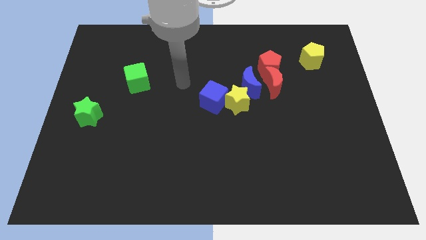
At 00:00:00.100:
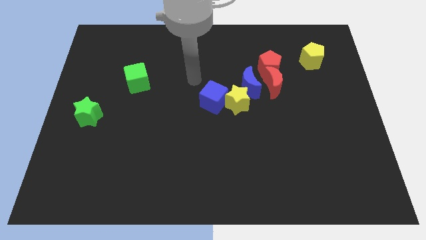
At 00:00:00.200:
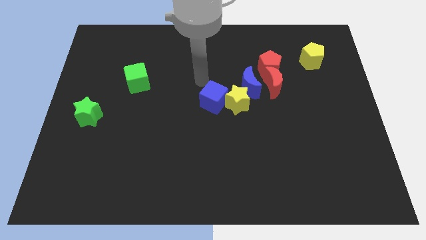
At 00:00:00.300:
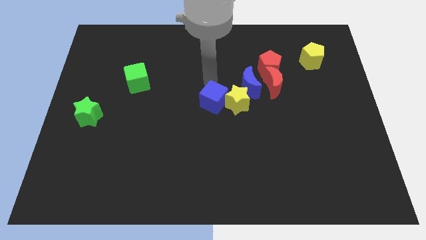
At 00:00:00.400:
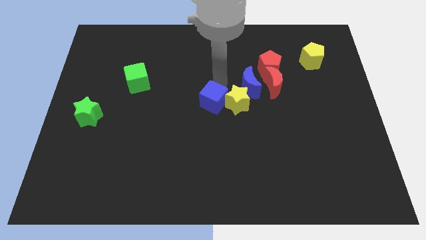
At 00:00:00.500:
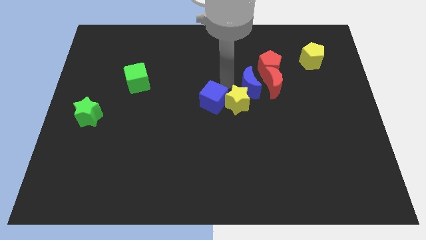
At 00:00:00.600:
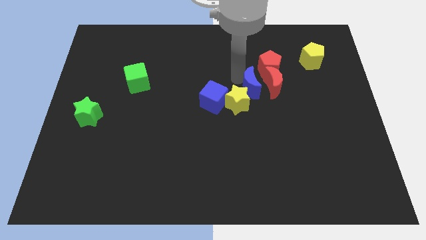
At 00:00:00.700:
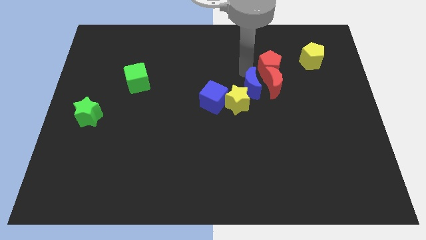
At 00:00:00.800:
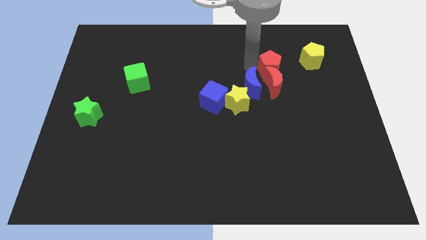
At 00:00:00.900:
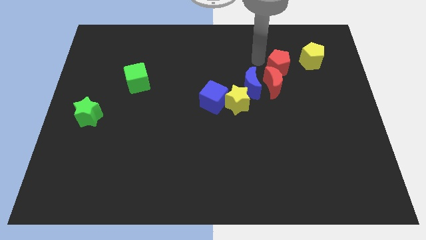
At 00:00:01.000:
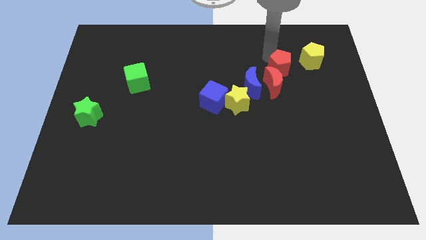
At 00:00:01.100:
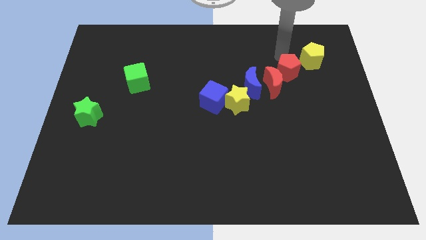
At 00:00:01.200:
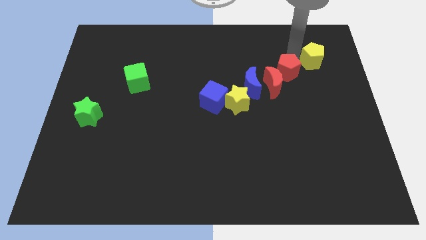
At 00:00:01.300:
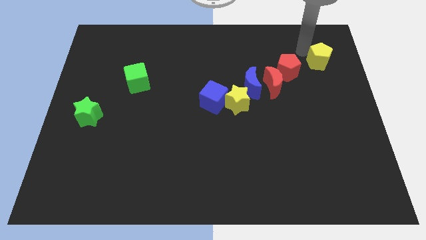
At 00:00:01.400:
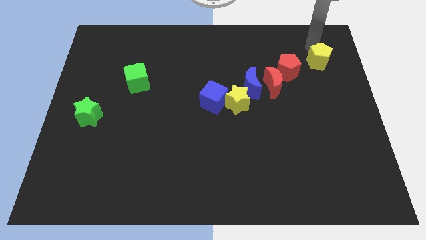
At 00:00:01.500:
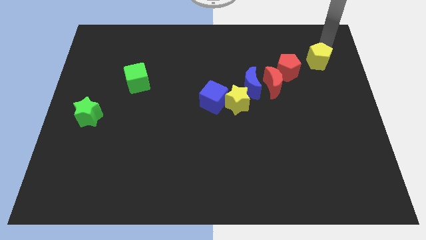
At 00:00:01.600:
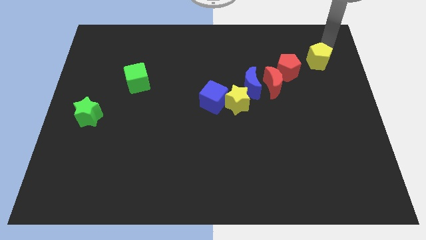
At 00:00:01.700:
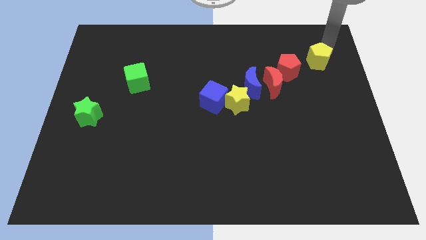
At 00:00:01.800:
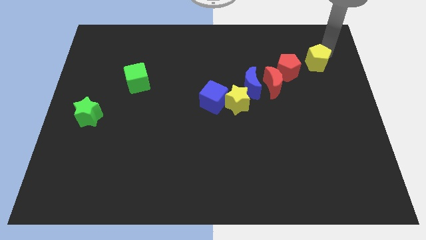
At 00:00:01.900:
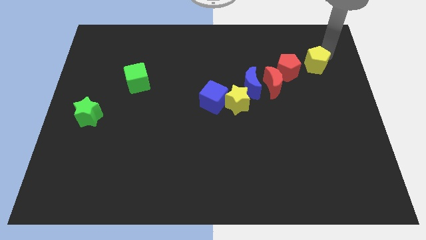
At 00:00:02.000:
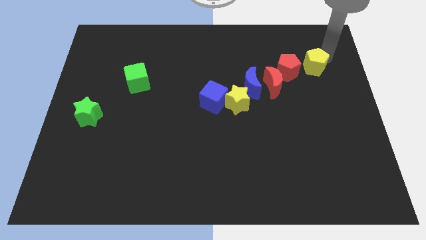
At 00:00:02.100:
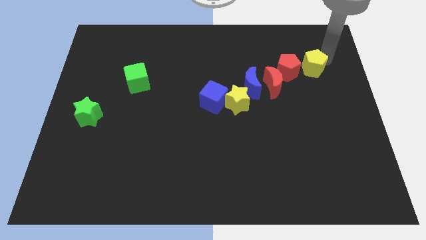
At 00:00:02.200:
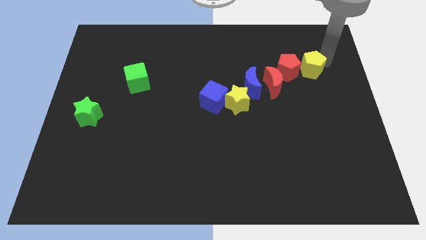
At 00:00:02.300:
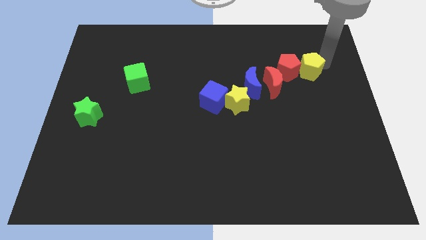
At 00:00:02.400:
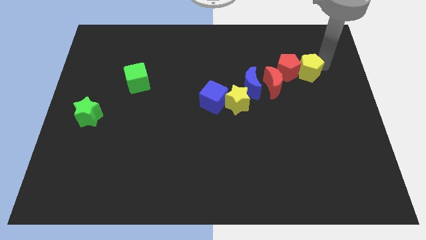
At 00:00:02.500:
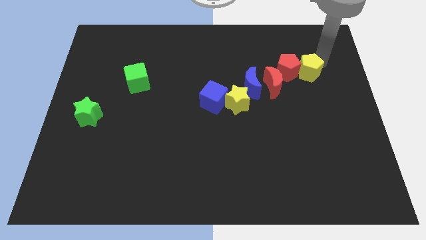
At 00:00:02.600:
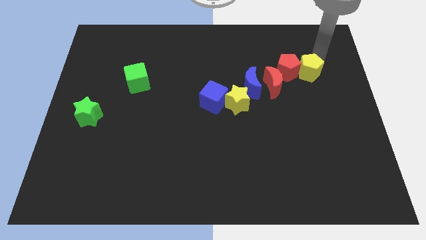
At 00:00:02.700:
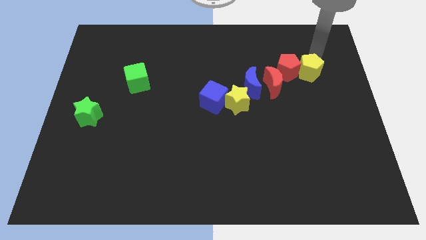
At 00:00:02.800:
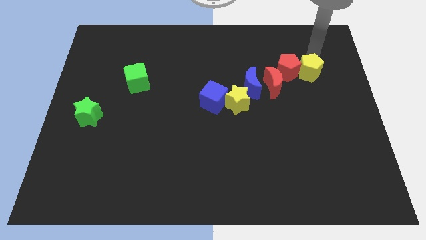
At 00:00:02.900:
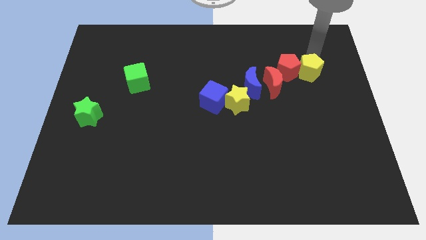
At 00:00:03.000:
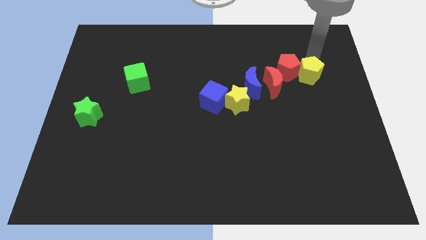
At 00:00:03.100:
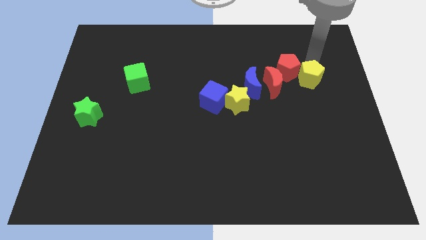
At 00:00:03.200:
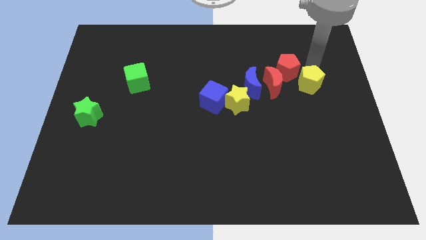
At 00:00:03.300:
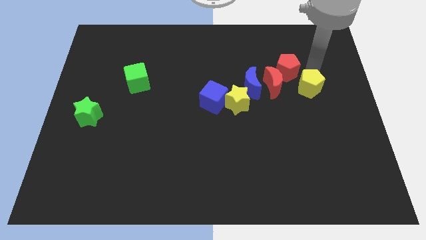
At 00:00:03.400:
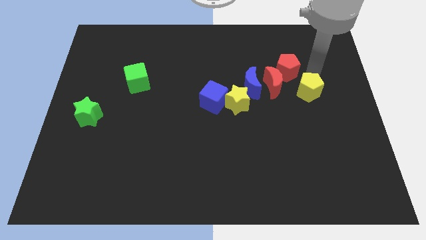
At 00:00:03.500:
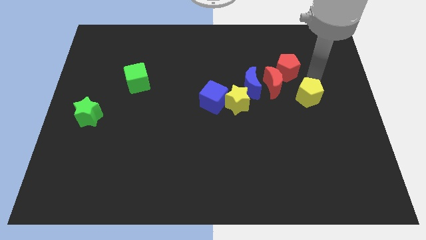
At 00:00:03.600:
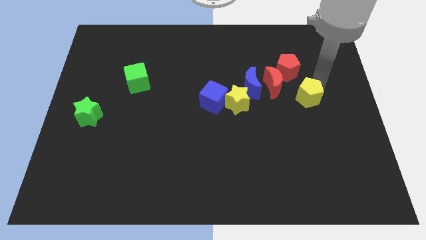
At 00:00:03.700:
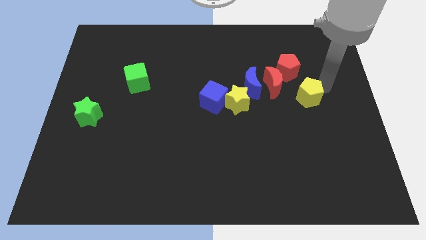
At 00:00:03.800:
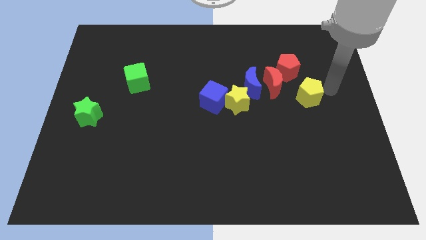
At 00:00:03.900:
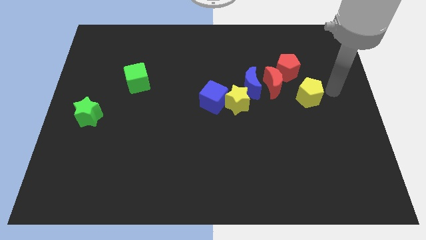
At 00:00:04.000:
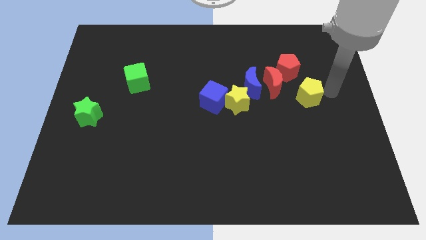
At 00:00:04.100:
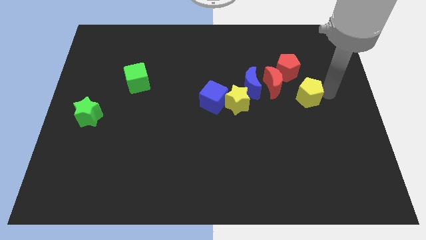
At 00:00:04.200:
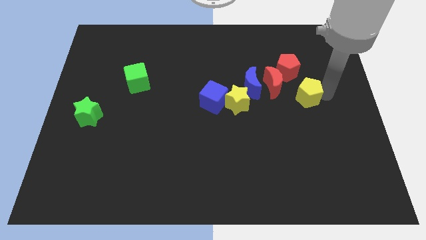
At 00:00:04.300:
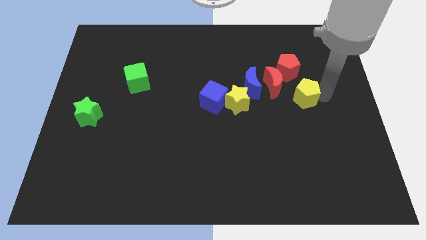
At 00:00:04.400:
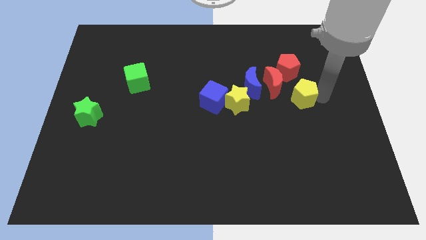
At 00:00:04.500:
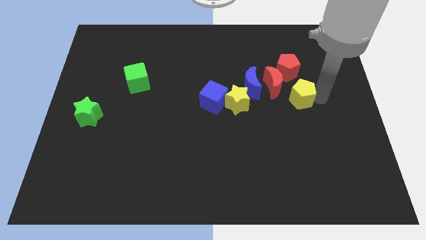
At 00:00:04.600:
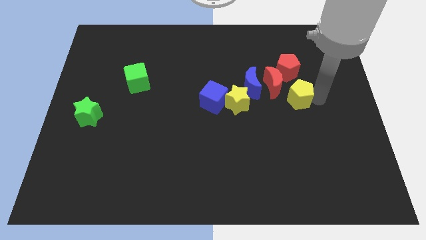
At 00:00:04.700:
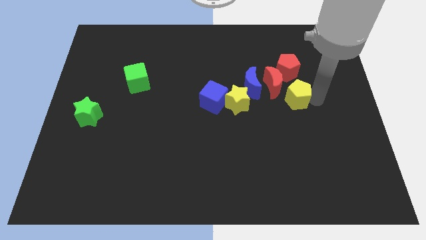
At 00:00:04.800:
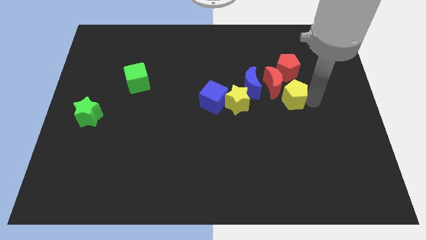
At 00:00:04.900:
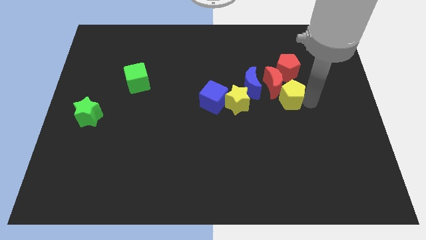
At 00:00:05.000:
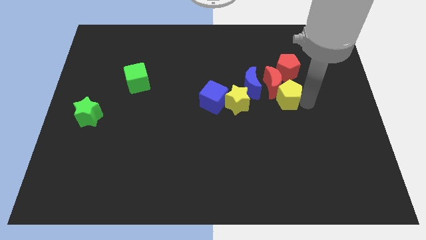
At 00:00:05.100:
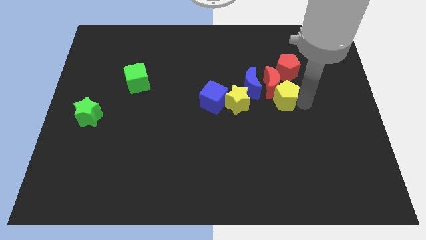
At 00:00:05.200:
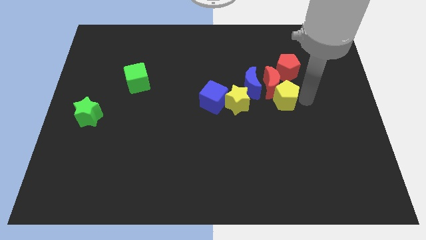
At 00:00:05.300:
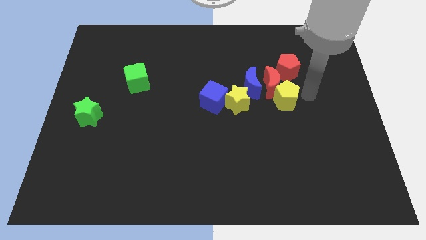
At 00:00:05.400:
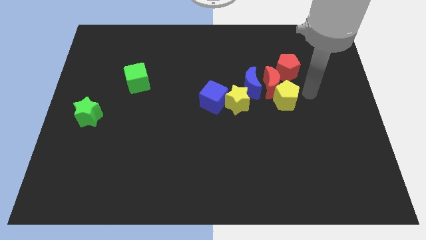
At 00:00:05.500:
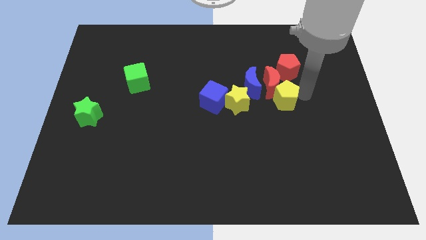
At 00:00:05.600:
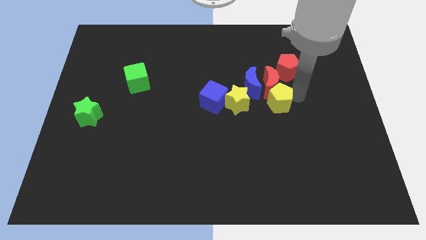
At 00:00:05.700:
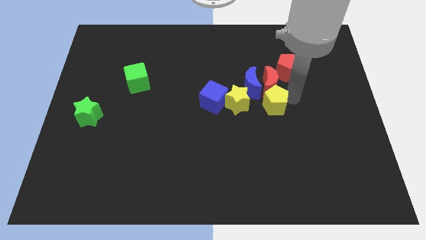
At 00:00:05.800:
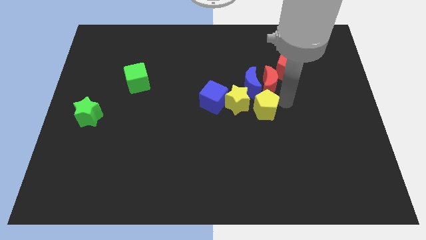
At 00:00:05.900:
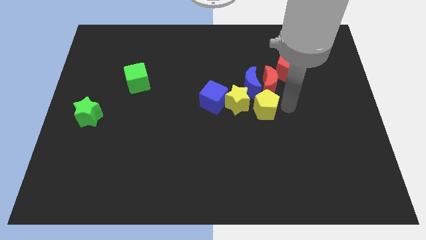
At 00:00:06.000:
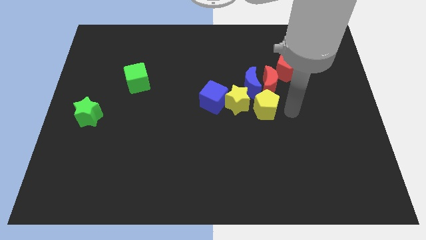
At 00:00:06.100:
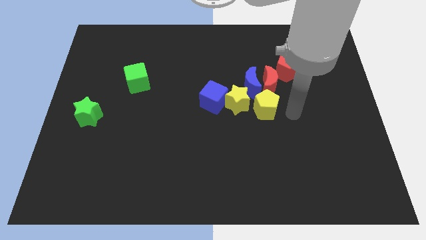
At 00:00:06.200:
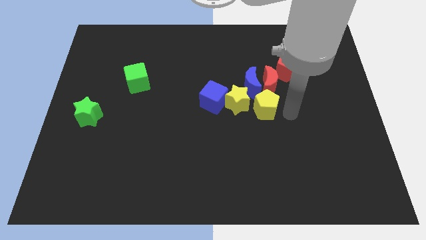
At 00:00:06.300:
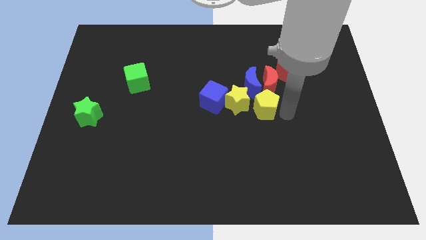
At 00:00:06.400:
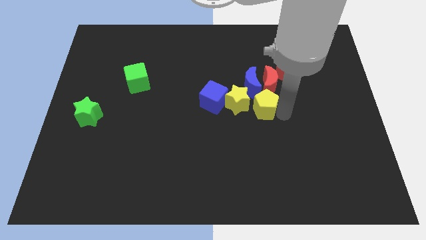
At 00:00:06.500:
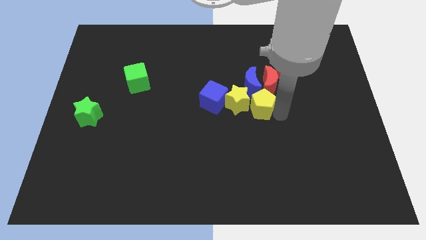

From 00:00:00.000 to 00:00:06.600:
slide the yellow pentagon close to the yellow star

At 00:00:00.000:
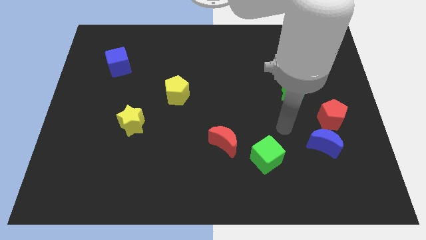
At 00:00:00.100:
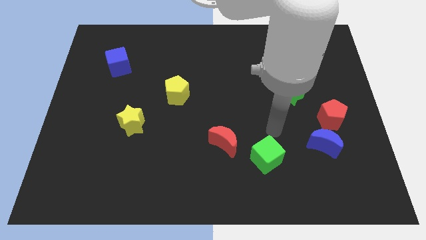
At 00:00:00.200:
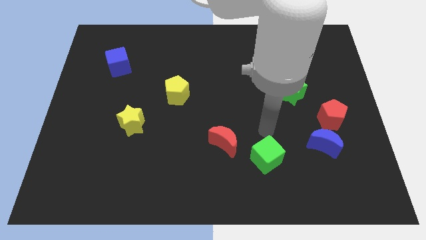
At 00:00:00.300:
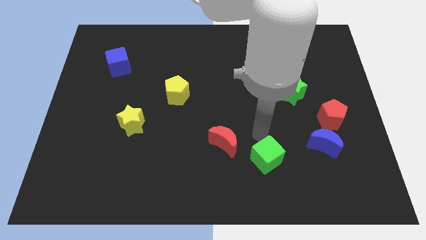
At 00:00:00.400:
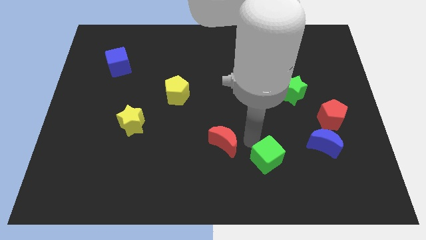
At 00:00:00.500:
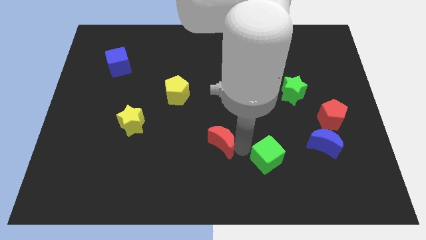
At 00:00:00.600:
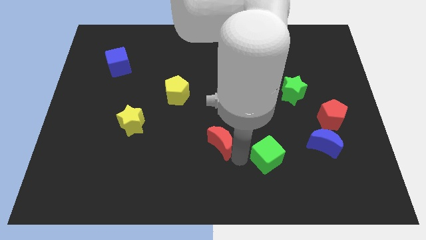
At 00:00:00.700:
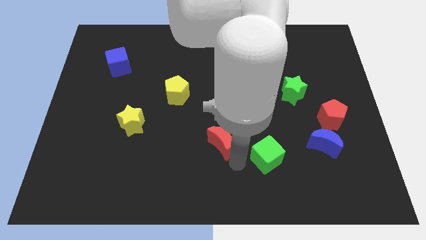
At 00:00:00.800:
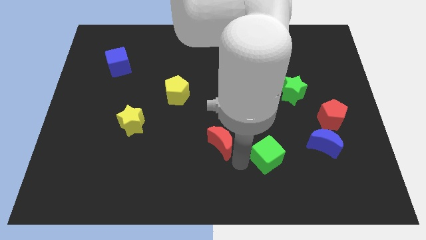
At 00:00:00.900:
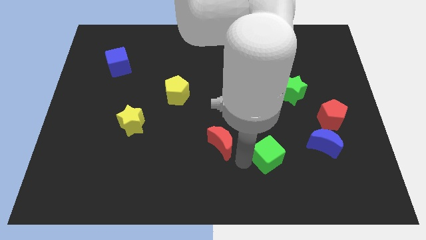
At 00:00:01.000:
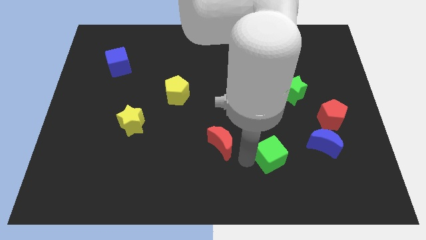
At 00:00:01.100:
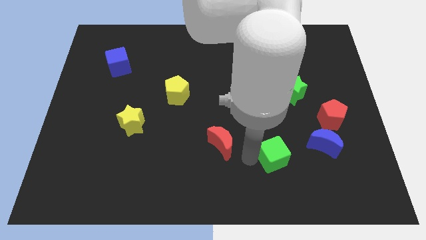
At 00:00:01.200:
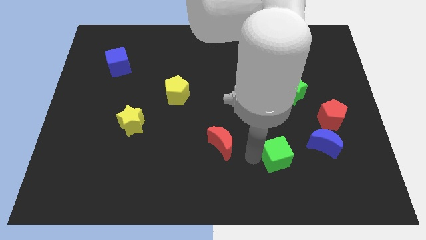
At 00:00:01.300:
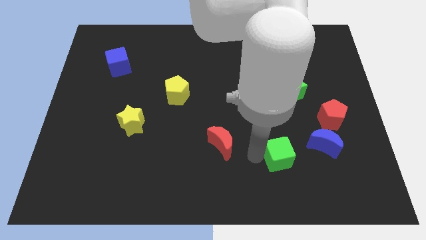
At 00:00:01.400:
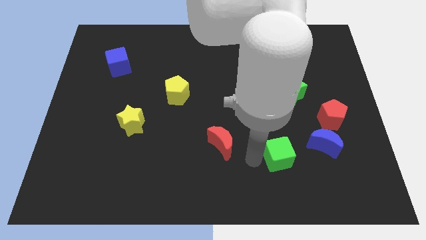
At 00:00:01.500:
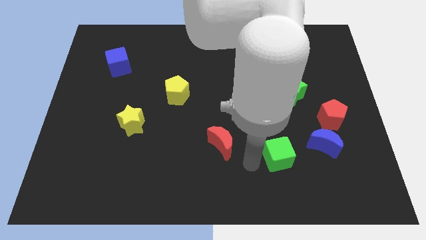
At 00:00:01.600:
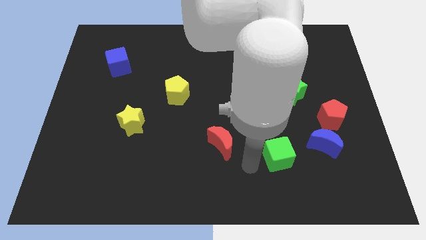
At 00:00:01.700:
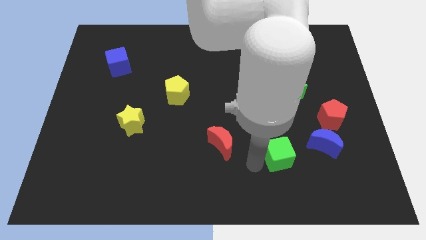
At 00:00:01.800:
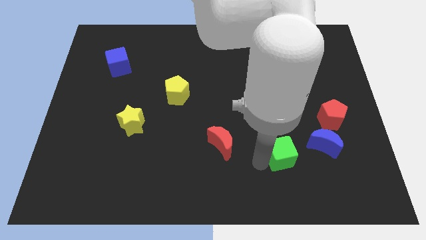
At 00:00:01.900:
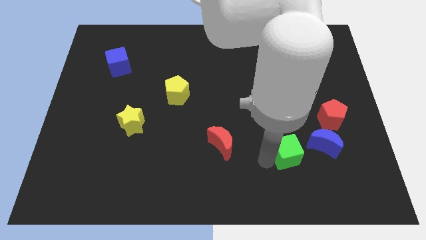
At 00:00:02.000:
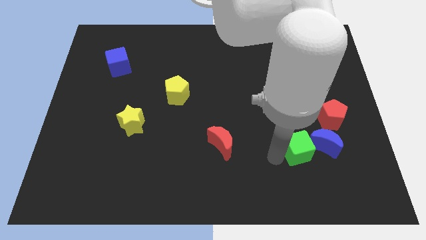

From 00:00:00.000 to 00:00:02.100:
move the green cube to the blue moon
